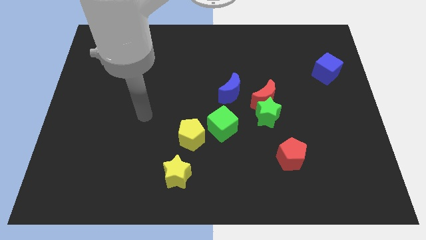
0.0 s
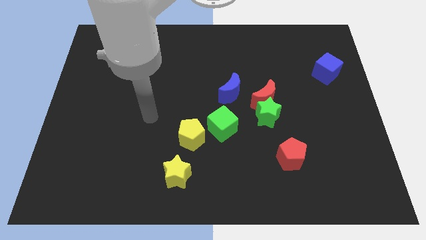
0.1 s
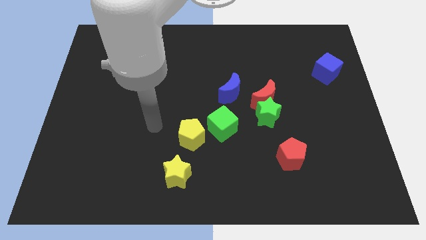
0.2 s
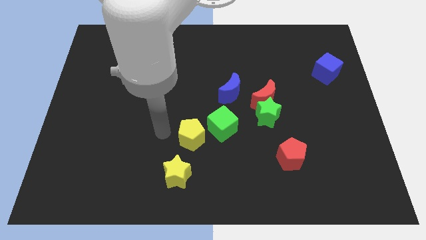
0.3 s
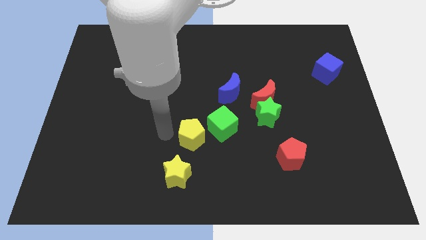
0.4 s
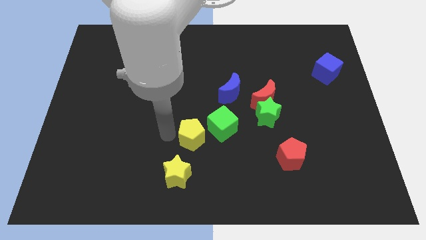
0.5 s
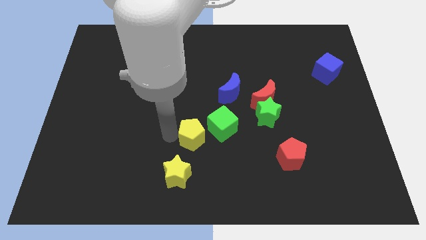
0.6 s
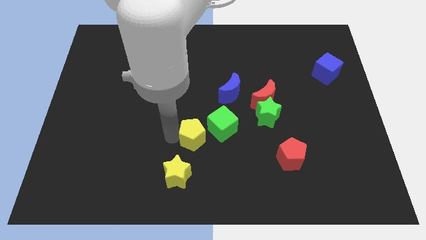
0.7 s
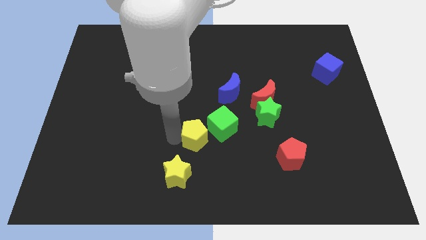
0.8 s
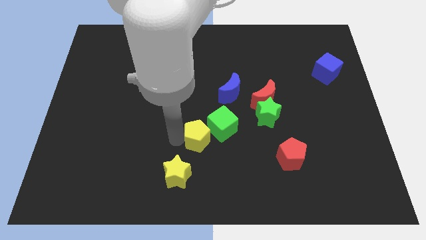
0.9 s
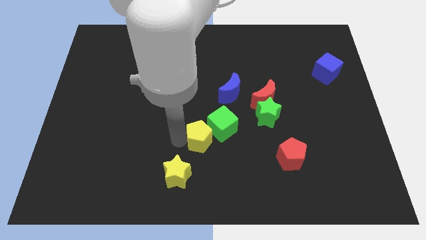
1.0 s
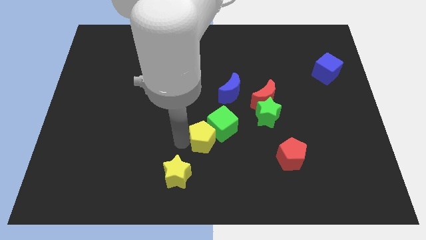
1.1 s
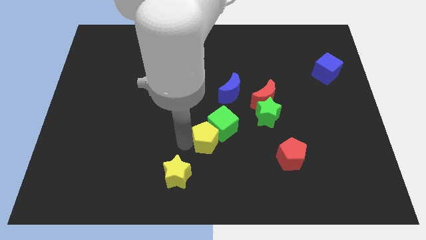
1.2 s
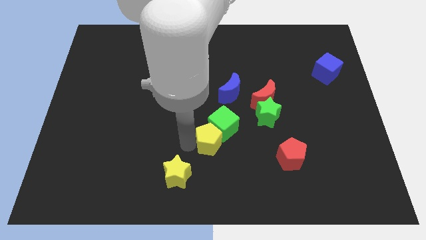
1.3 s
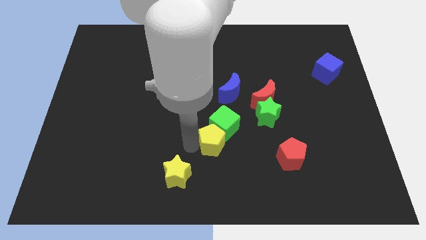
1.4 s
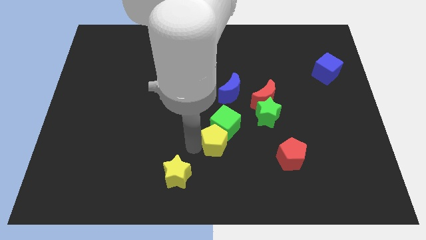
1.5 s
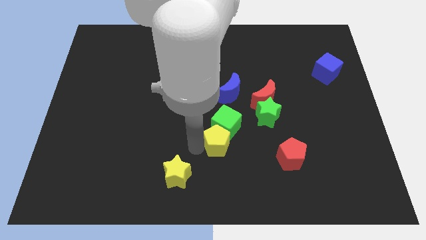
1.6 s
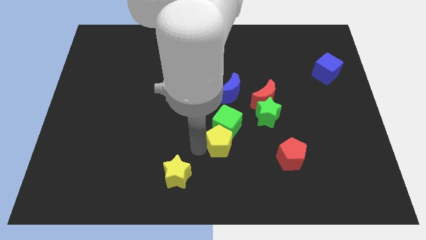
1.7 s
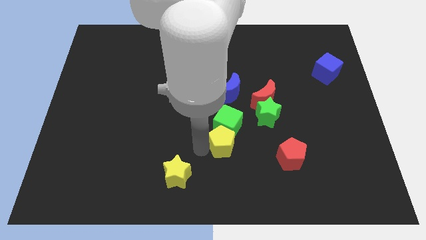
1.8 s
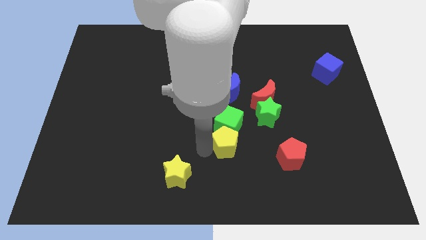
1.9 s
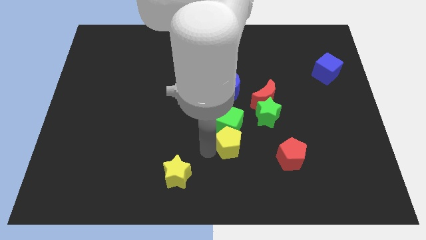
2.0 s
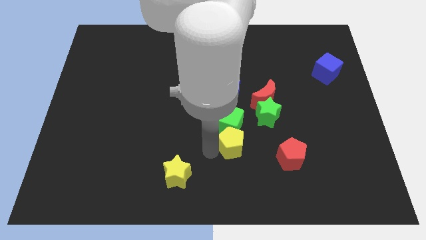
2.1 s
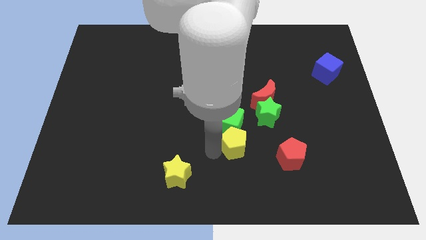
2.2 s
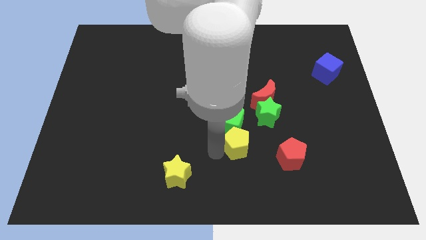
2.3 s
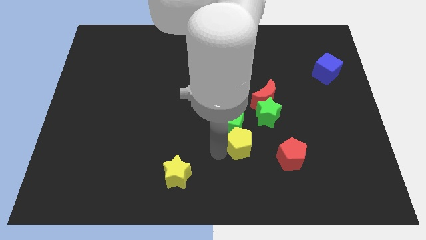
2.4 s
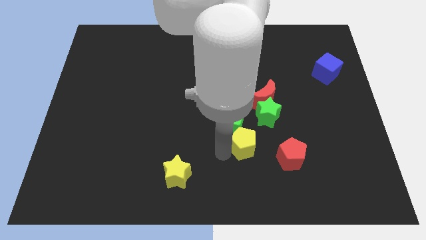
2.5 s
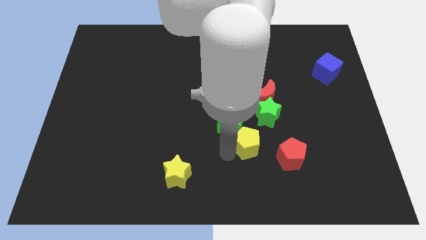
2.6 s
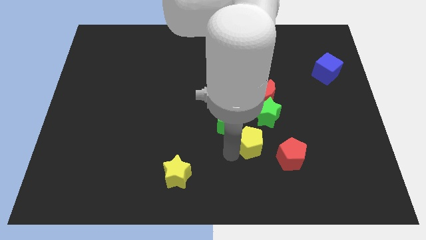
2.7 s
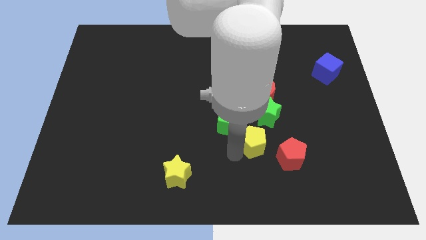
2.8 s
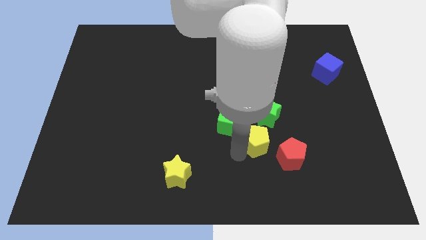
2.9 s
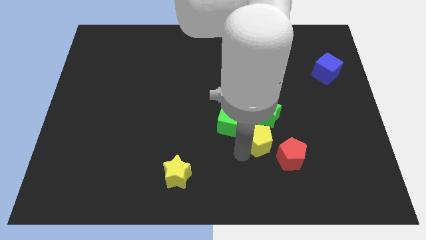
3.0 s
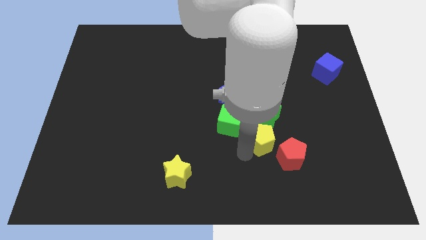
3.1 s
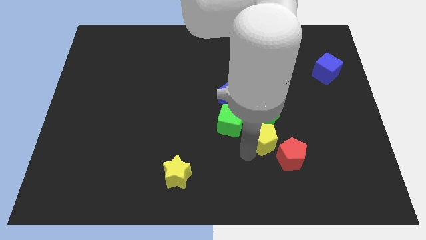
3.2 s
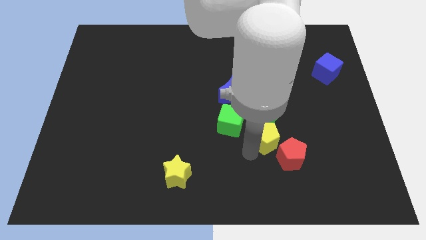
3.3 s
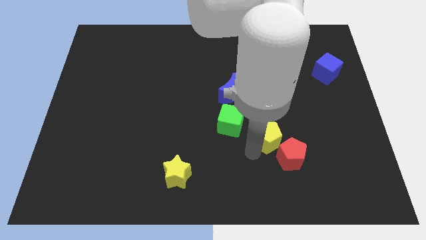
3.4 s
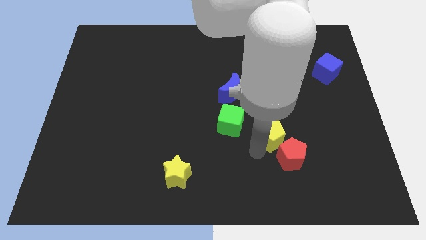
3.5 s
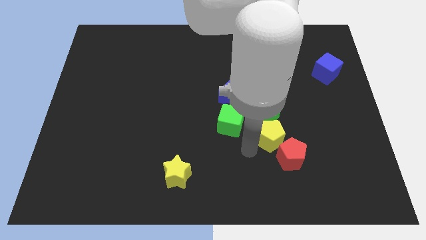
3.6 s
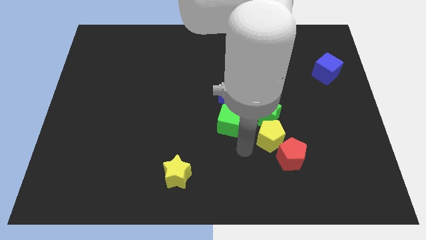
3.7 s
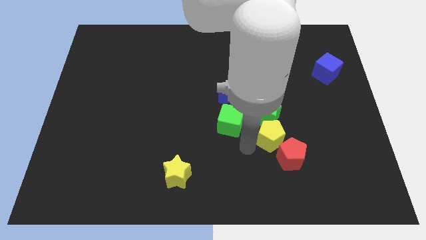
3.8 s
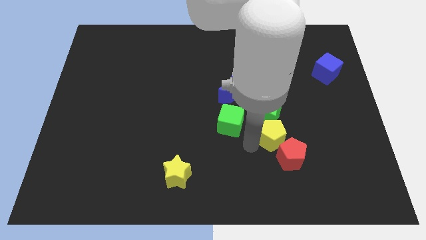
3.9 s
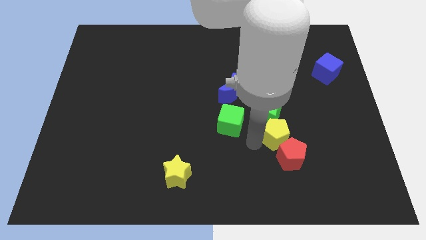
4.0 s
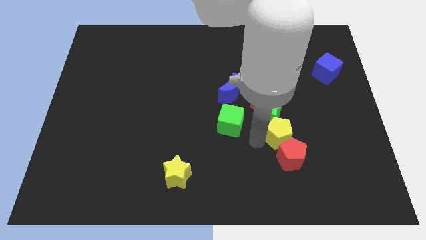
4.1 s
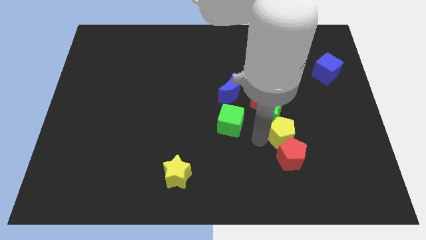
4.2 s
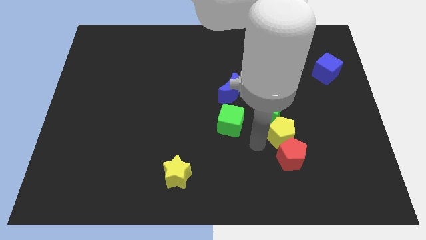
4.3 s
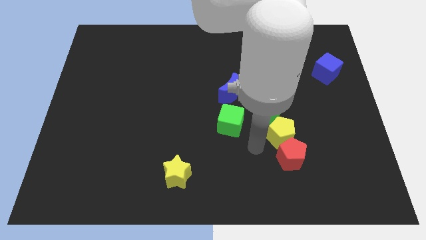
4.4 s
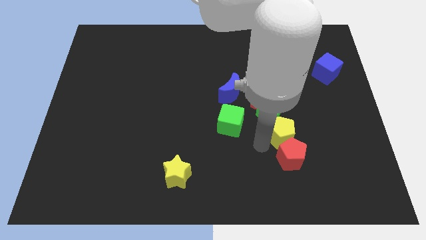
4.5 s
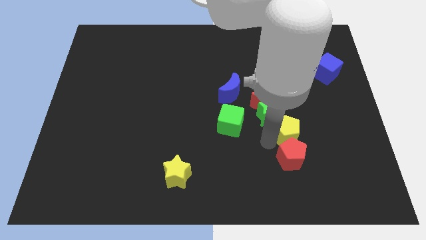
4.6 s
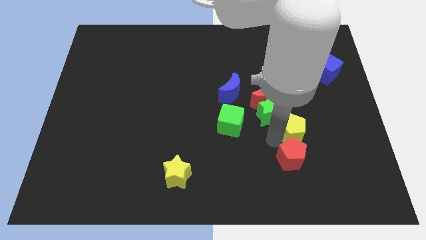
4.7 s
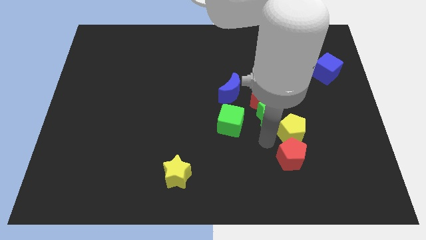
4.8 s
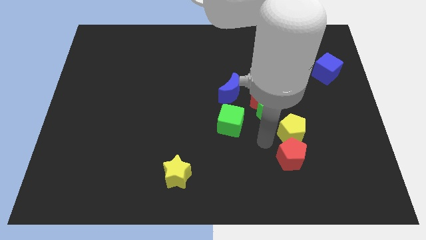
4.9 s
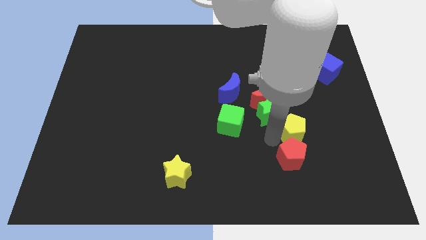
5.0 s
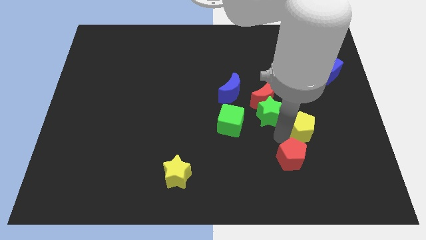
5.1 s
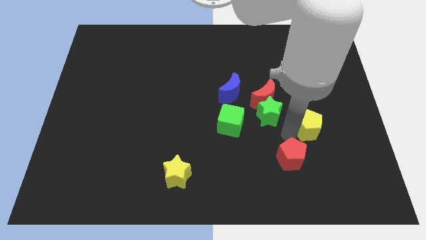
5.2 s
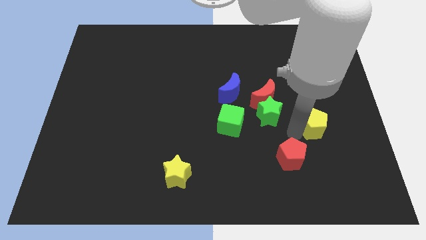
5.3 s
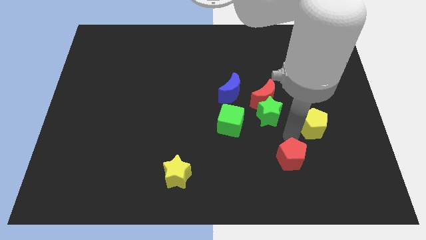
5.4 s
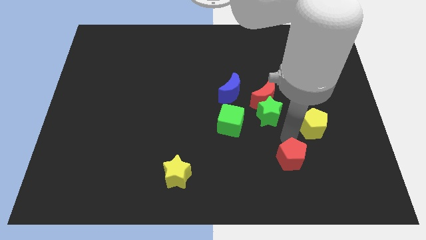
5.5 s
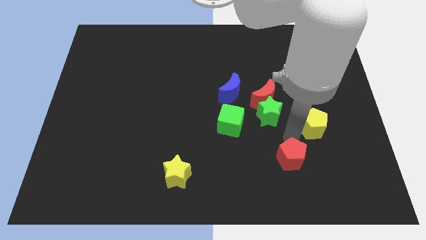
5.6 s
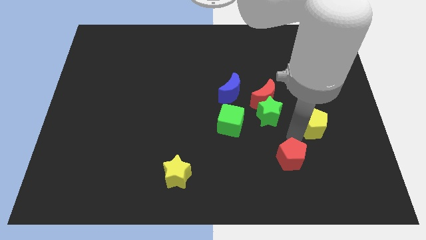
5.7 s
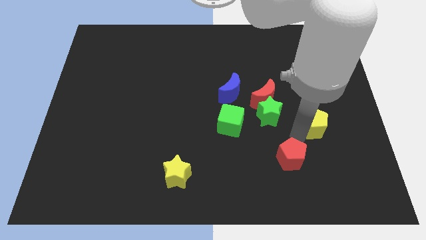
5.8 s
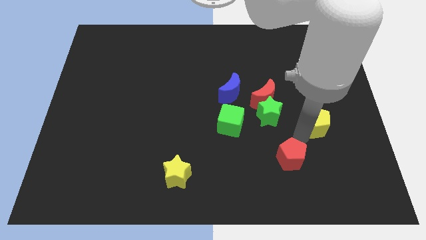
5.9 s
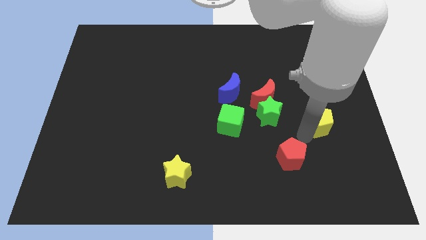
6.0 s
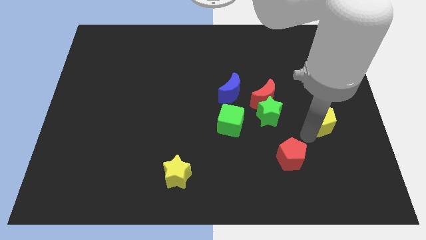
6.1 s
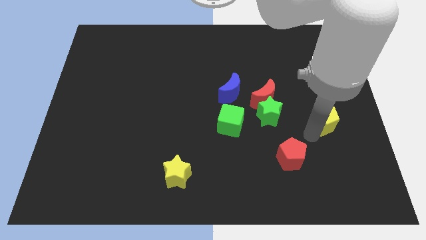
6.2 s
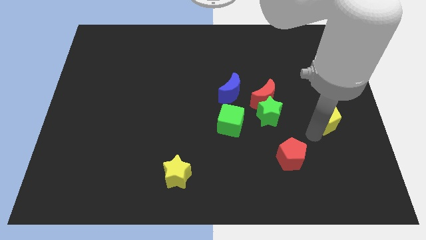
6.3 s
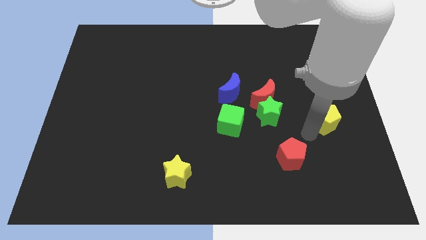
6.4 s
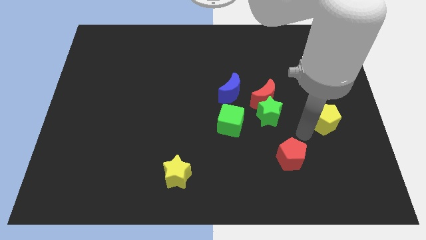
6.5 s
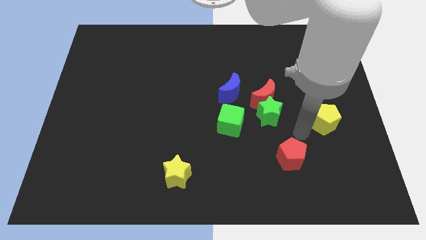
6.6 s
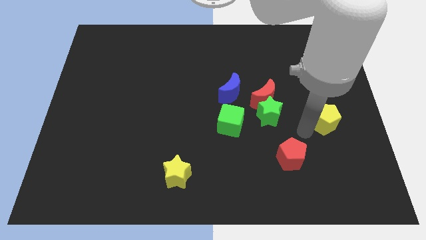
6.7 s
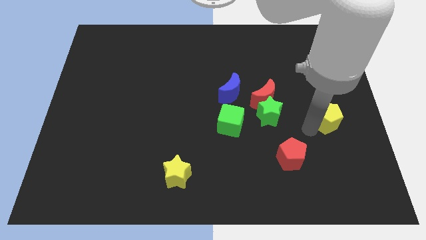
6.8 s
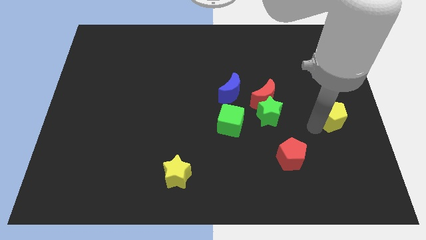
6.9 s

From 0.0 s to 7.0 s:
push the yellow pentagon to the right side

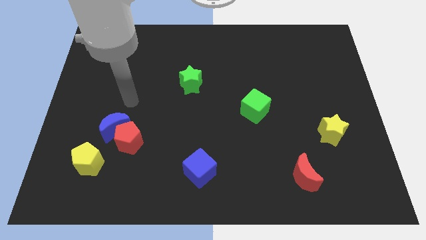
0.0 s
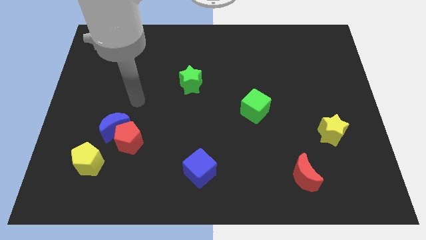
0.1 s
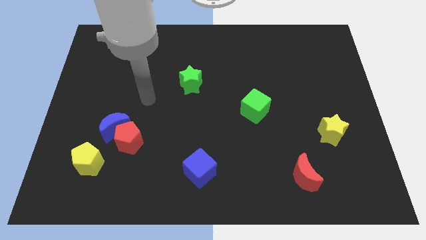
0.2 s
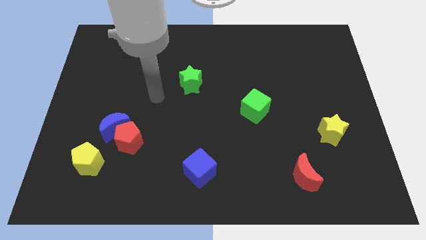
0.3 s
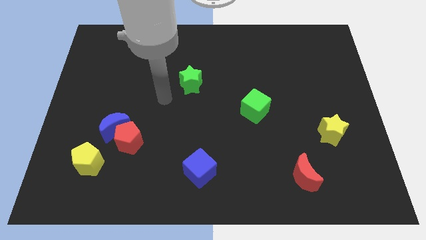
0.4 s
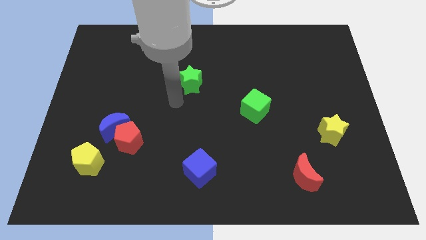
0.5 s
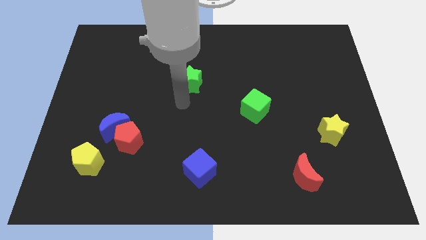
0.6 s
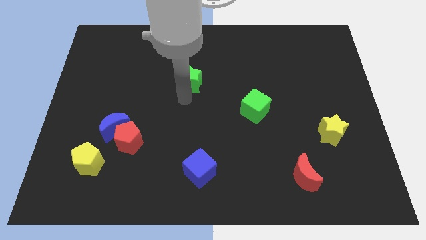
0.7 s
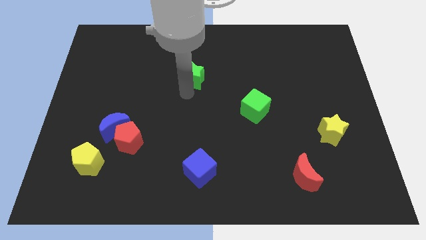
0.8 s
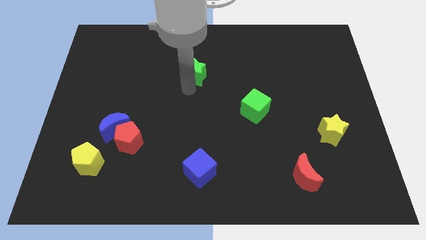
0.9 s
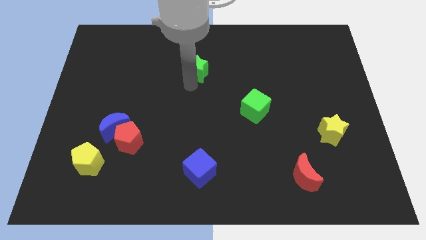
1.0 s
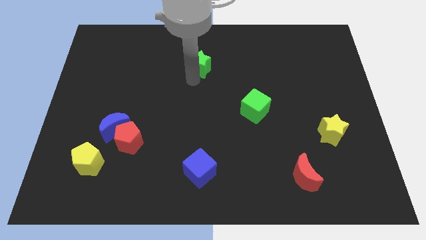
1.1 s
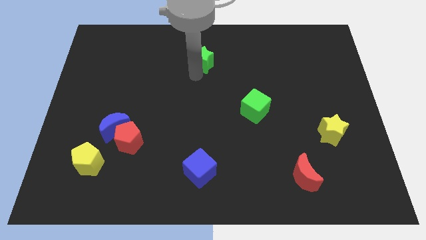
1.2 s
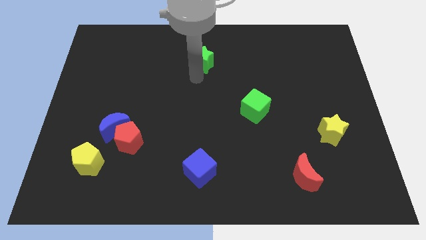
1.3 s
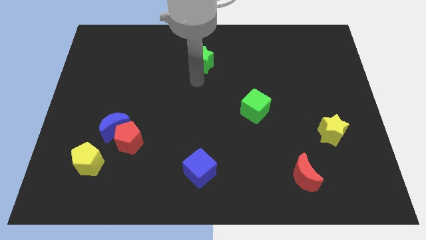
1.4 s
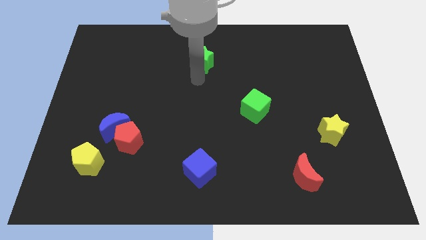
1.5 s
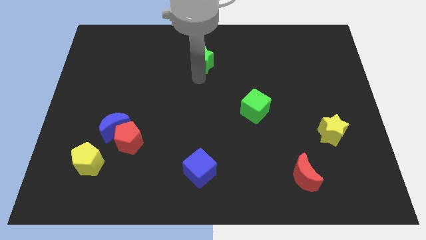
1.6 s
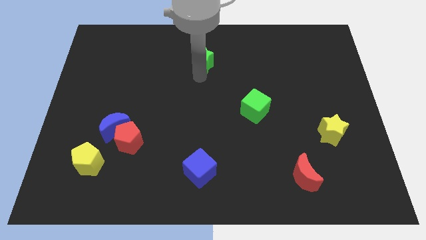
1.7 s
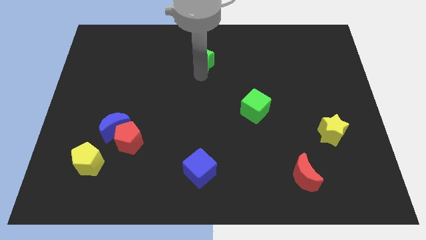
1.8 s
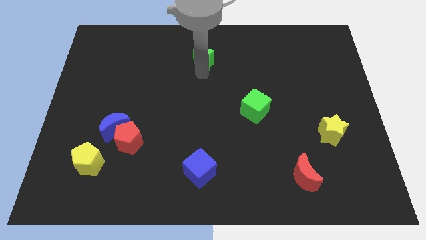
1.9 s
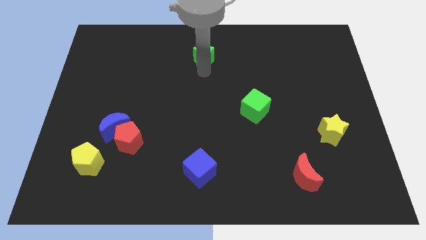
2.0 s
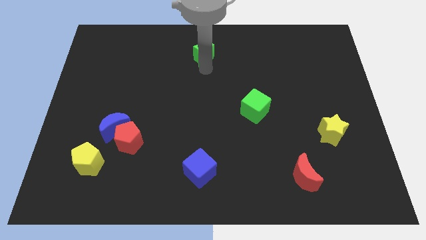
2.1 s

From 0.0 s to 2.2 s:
move the green star to the top side
